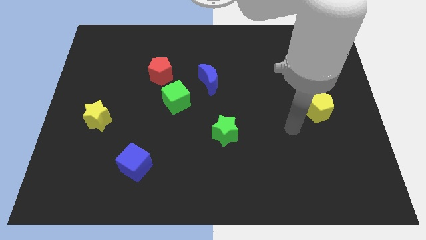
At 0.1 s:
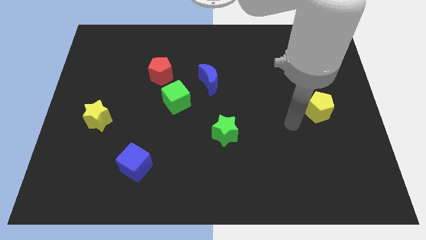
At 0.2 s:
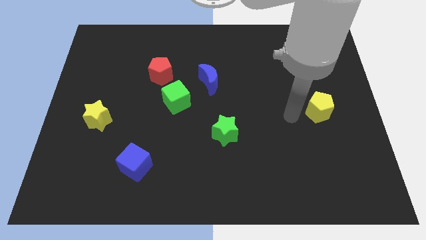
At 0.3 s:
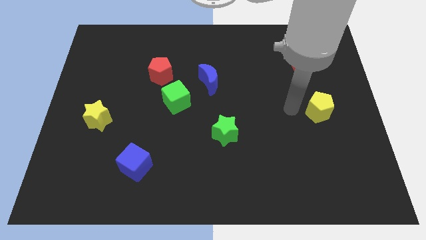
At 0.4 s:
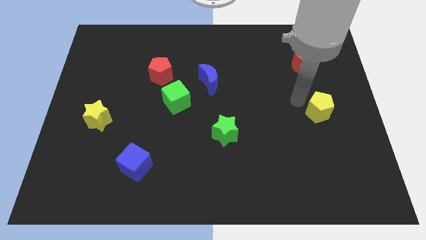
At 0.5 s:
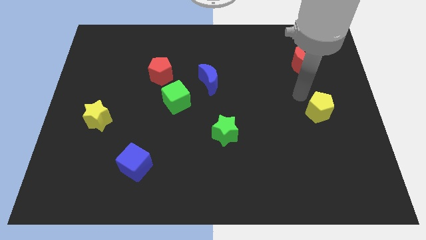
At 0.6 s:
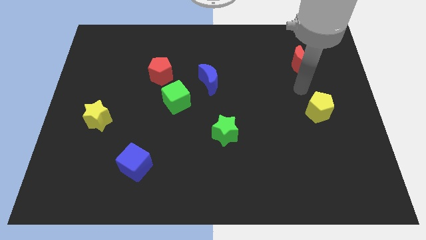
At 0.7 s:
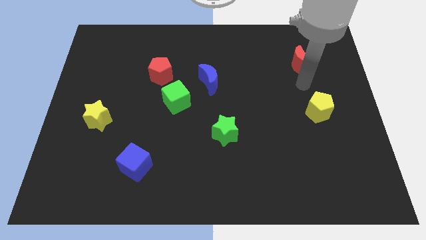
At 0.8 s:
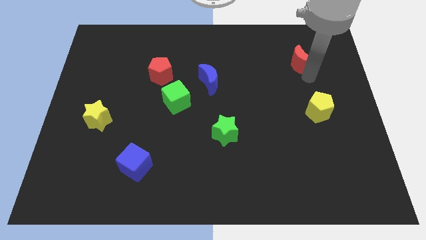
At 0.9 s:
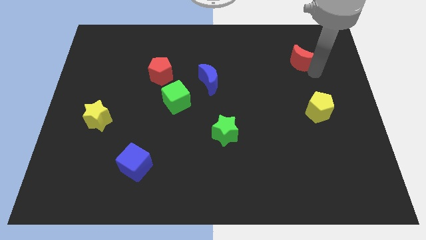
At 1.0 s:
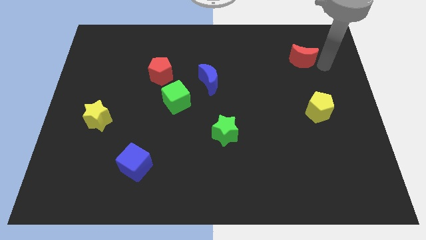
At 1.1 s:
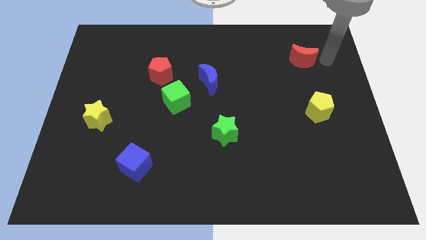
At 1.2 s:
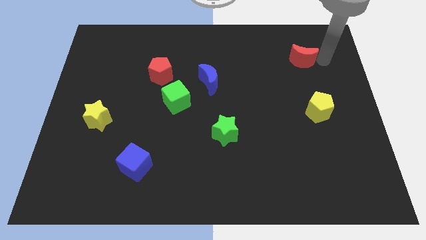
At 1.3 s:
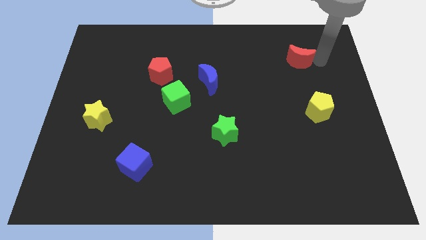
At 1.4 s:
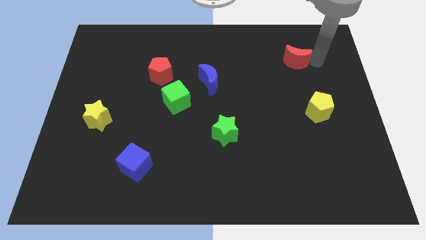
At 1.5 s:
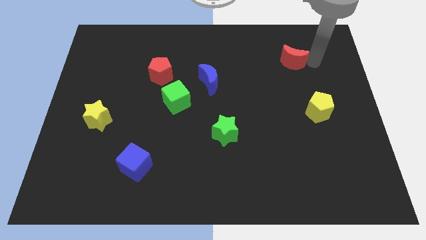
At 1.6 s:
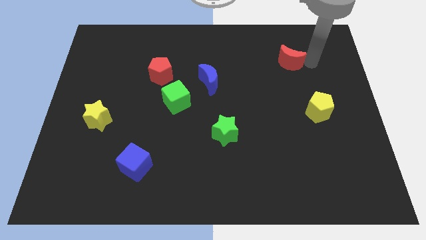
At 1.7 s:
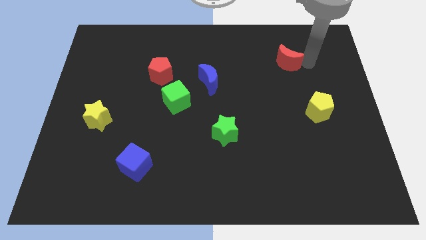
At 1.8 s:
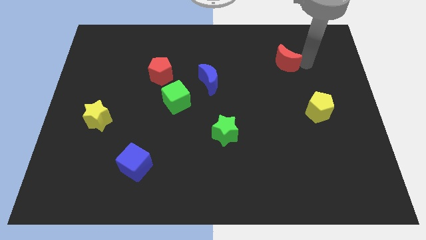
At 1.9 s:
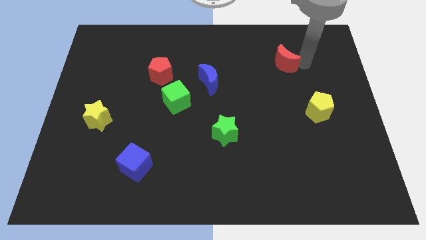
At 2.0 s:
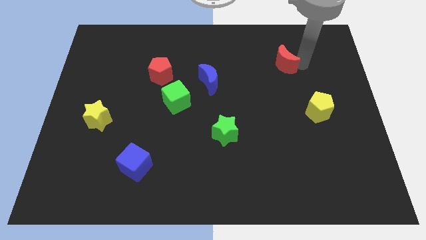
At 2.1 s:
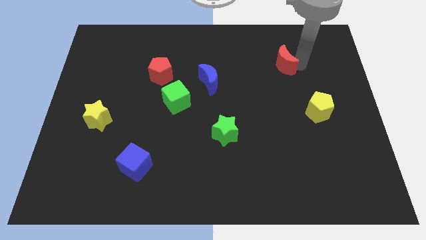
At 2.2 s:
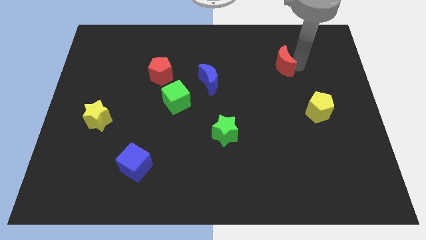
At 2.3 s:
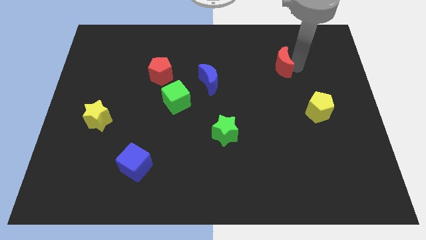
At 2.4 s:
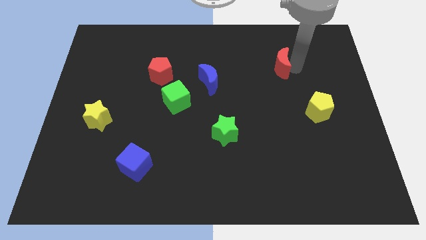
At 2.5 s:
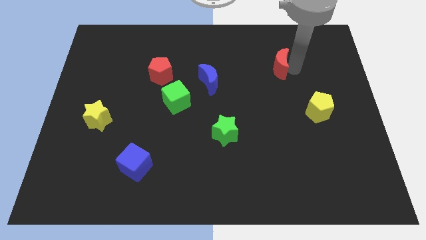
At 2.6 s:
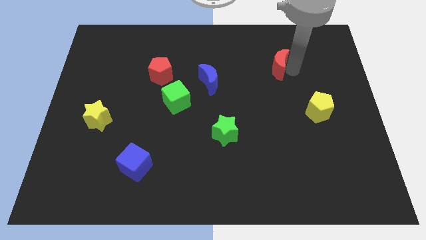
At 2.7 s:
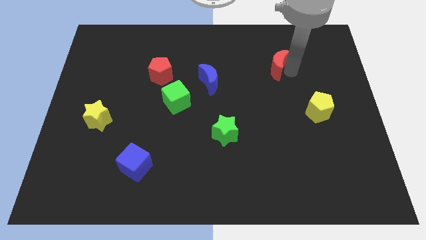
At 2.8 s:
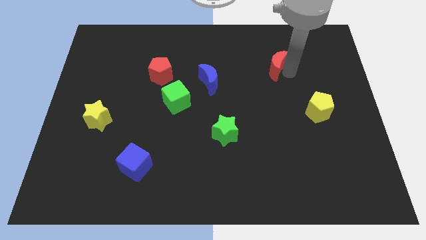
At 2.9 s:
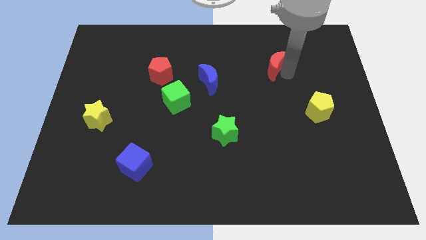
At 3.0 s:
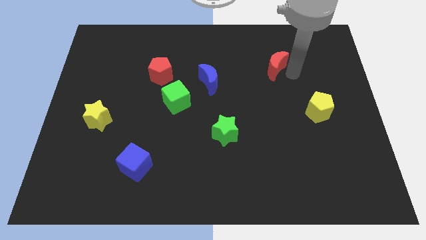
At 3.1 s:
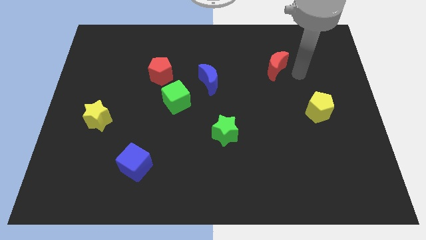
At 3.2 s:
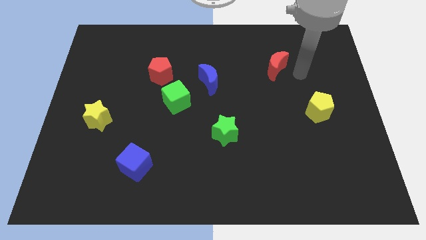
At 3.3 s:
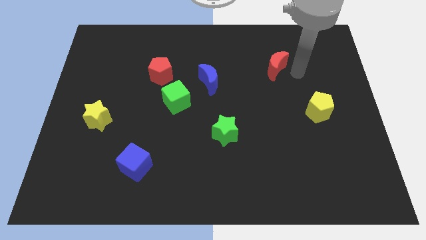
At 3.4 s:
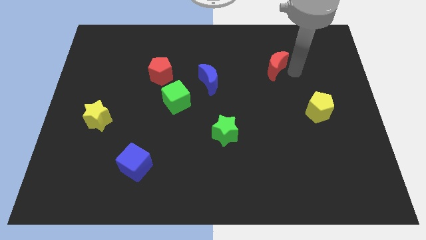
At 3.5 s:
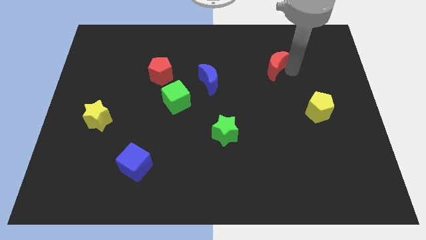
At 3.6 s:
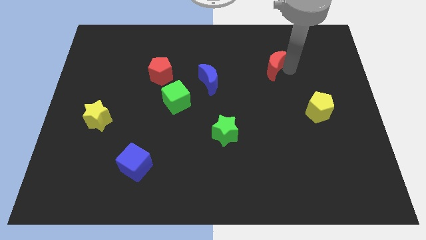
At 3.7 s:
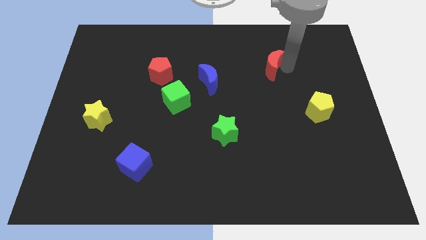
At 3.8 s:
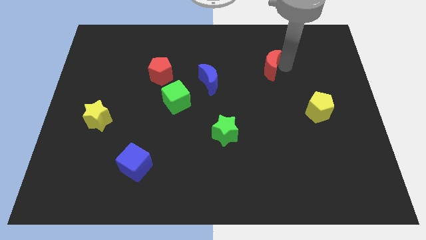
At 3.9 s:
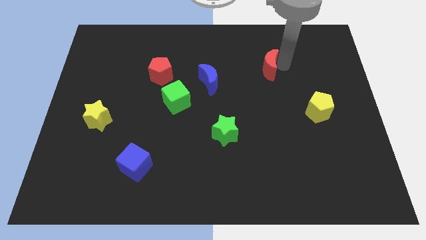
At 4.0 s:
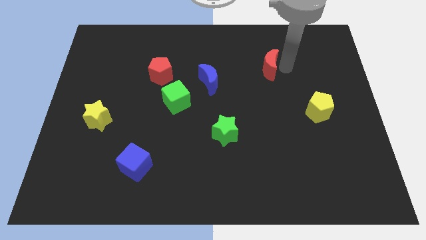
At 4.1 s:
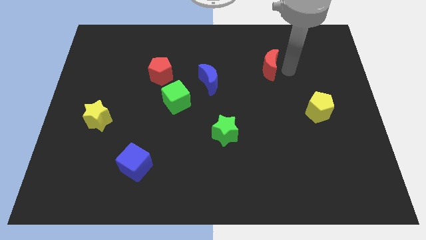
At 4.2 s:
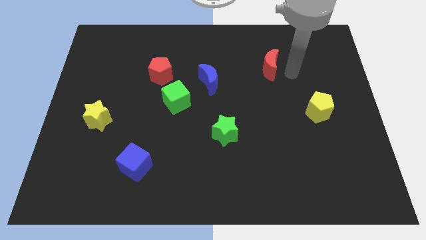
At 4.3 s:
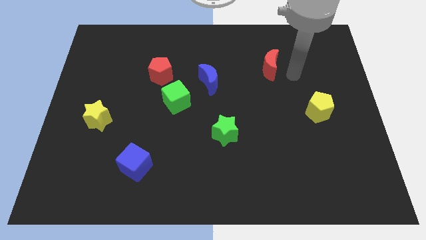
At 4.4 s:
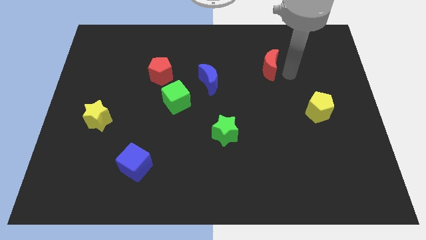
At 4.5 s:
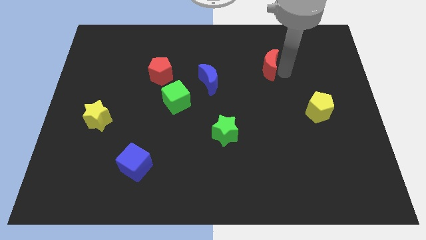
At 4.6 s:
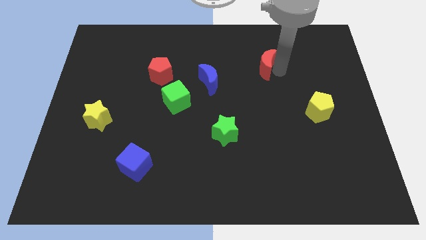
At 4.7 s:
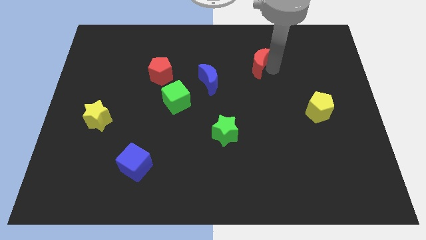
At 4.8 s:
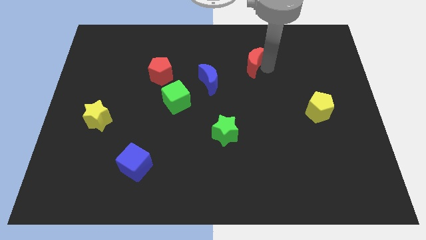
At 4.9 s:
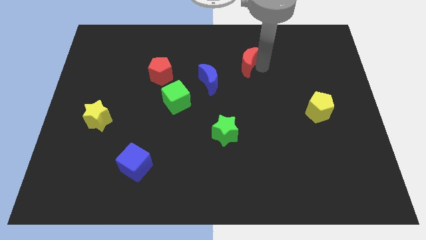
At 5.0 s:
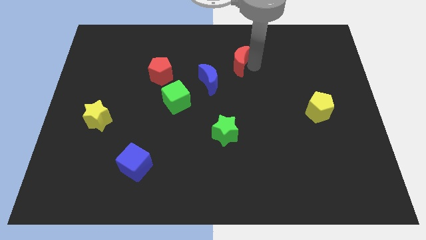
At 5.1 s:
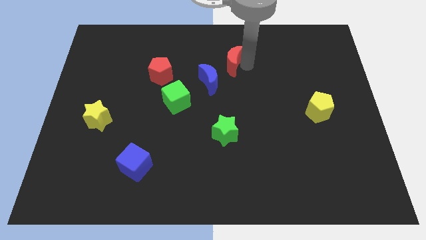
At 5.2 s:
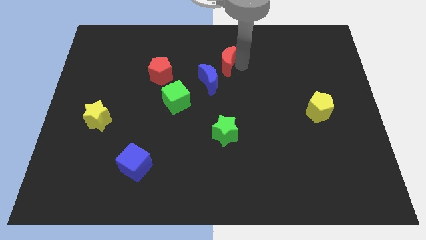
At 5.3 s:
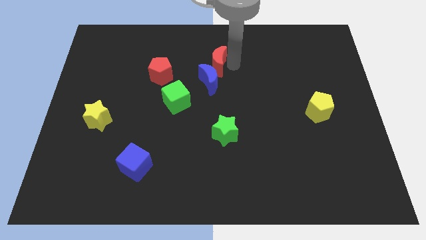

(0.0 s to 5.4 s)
slide the red moon left

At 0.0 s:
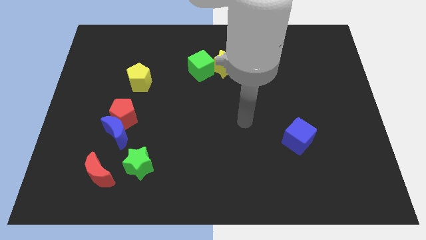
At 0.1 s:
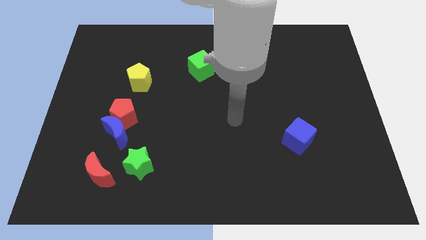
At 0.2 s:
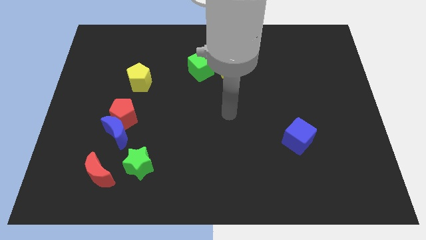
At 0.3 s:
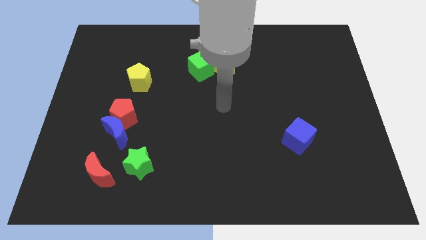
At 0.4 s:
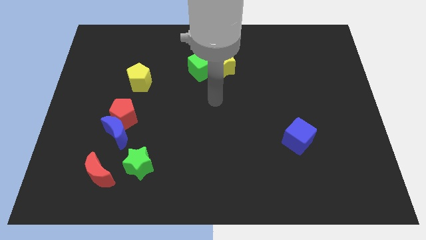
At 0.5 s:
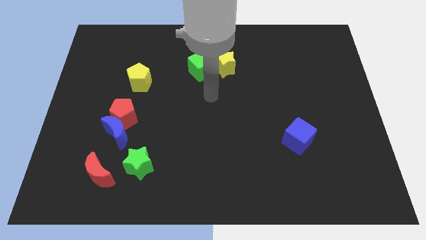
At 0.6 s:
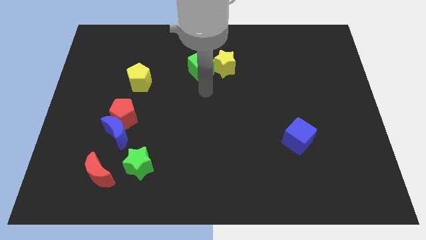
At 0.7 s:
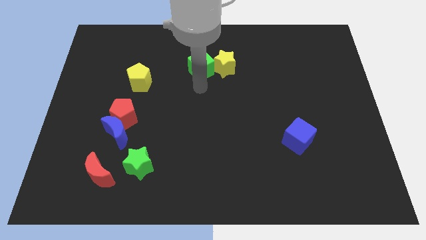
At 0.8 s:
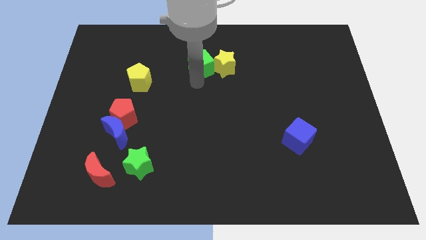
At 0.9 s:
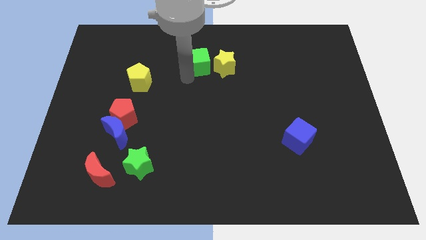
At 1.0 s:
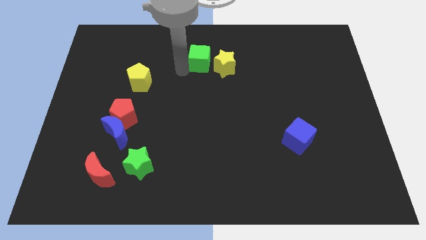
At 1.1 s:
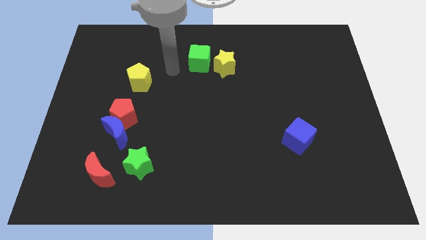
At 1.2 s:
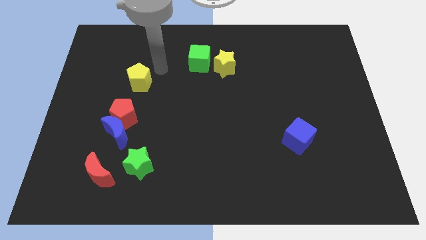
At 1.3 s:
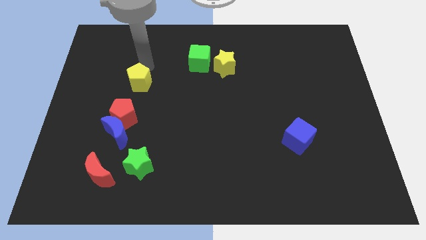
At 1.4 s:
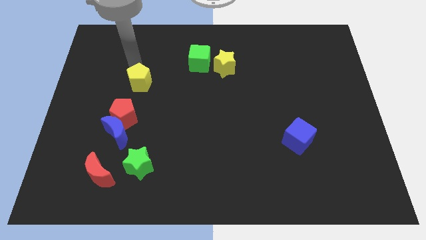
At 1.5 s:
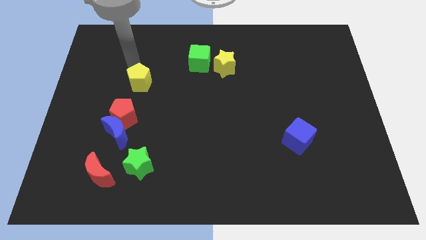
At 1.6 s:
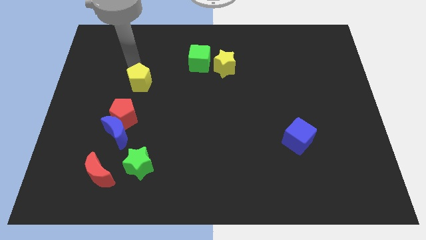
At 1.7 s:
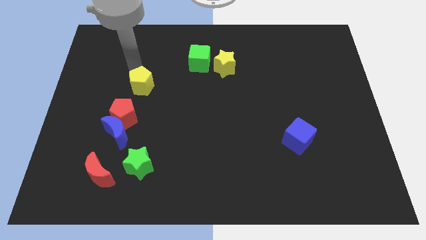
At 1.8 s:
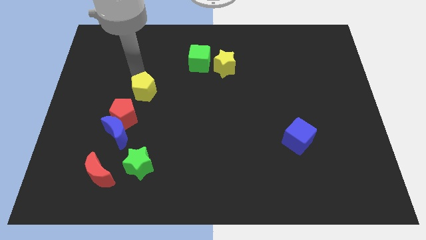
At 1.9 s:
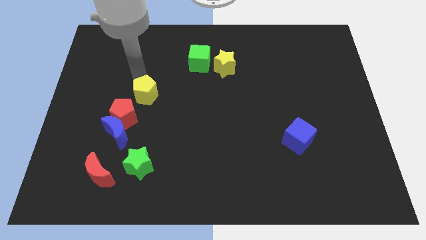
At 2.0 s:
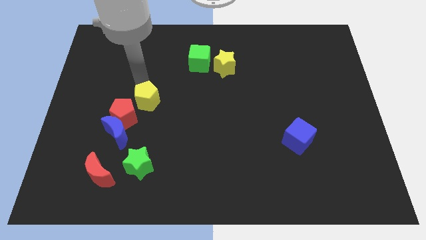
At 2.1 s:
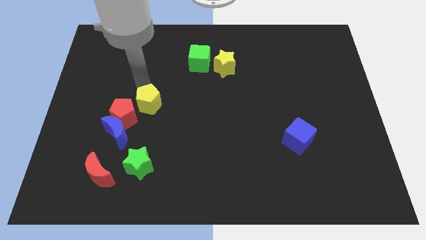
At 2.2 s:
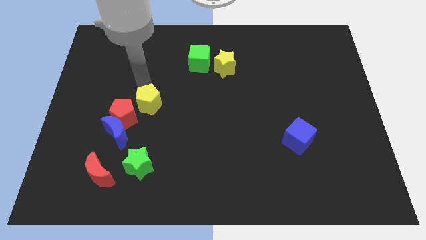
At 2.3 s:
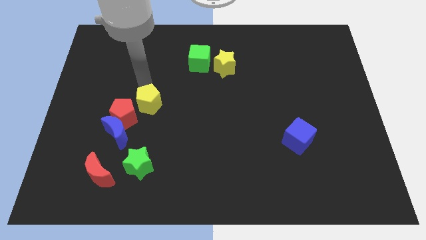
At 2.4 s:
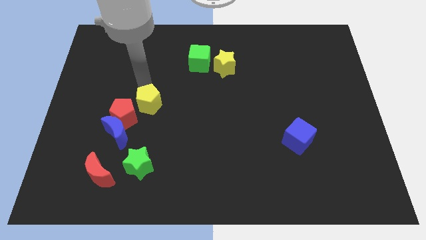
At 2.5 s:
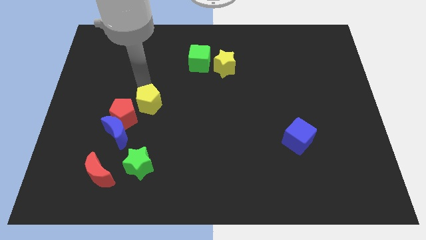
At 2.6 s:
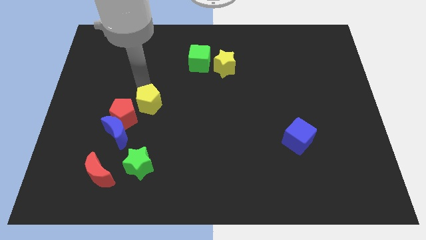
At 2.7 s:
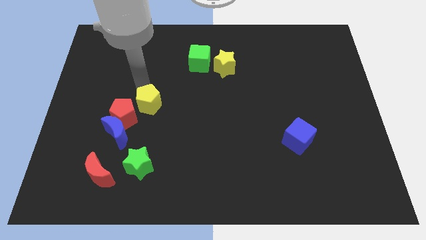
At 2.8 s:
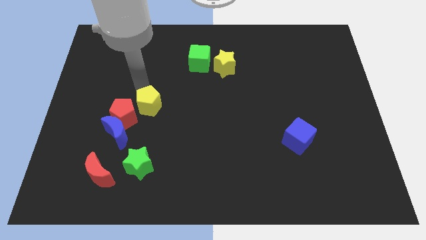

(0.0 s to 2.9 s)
push the yellow pentagon somewhat down
